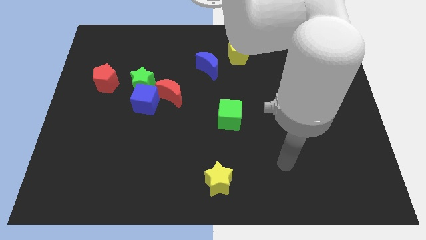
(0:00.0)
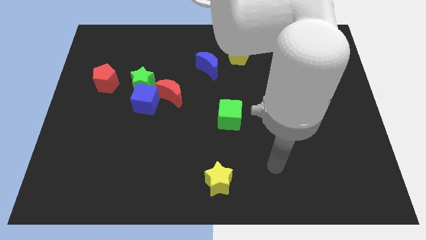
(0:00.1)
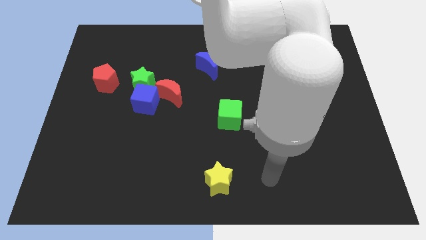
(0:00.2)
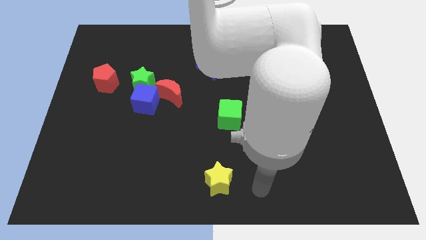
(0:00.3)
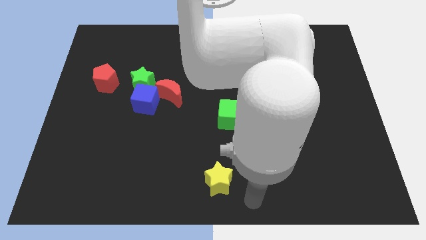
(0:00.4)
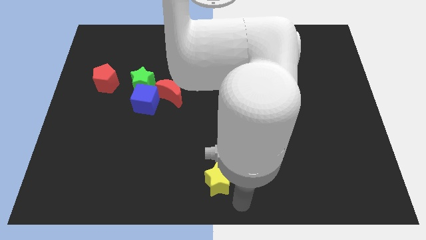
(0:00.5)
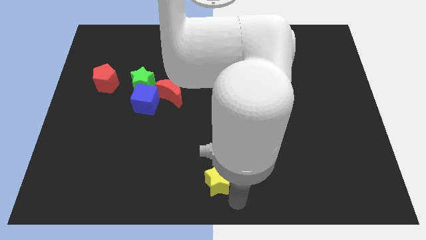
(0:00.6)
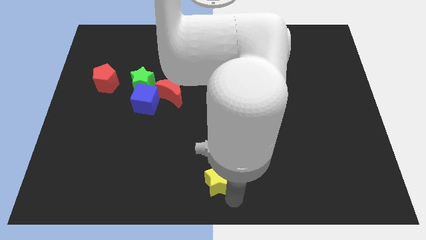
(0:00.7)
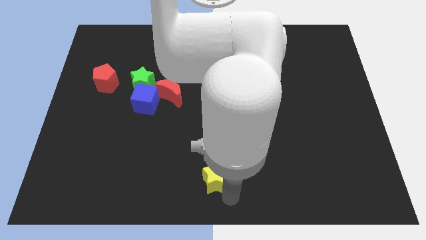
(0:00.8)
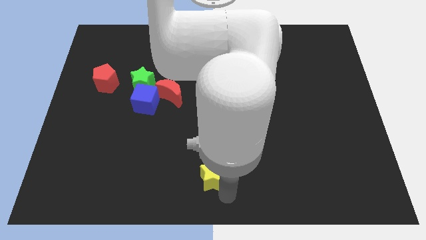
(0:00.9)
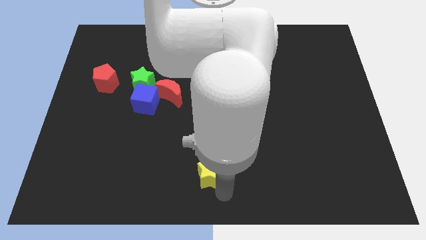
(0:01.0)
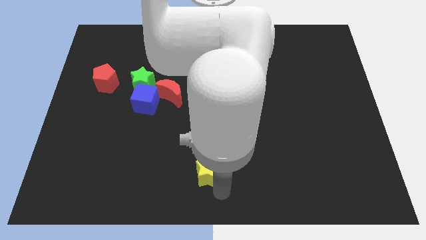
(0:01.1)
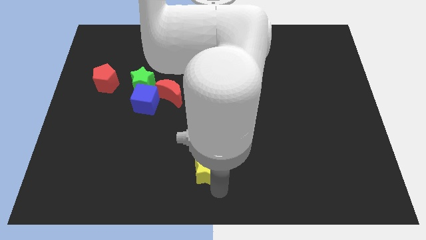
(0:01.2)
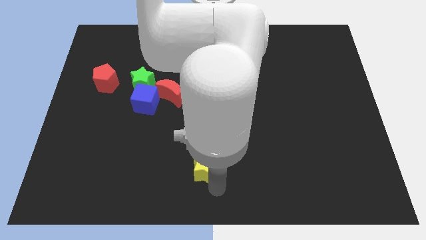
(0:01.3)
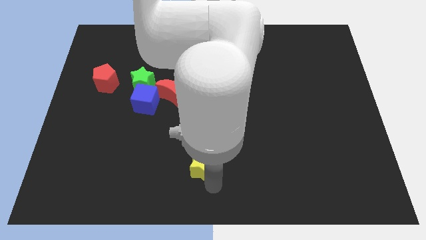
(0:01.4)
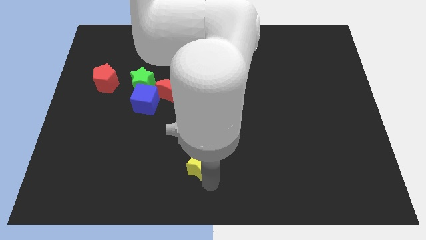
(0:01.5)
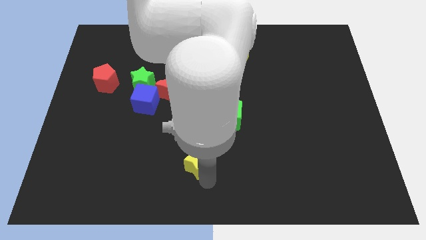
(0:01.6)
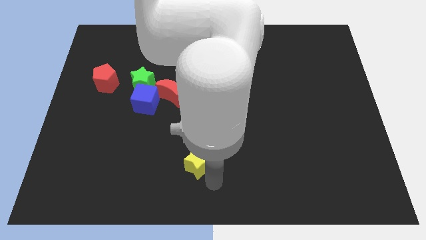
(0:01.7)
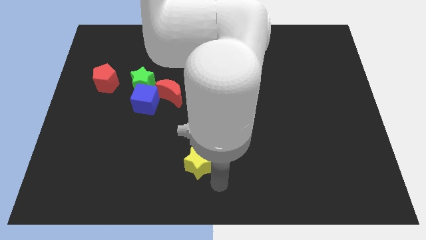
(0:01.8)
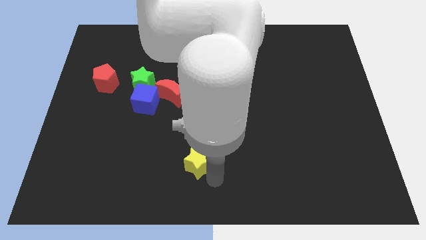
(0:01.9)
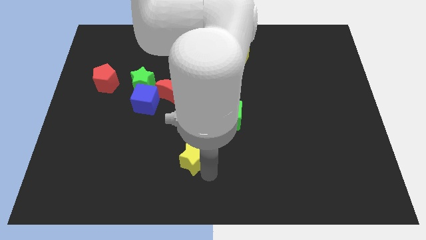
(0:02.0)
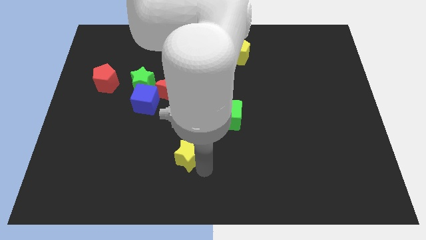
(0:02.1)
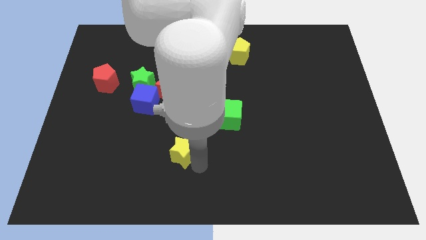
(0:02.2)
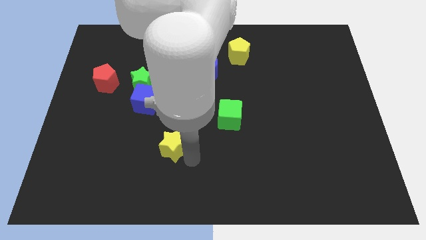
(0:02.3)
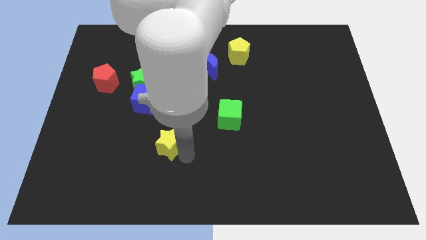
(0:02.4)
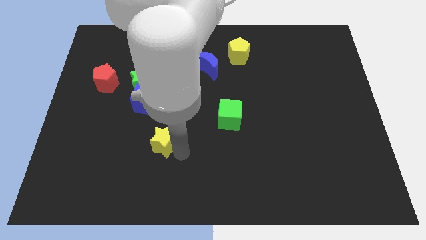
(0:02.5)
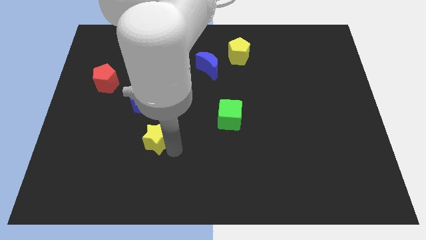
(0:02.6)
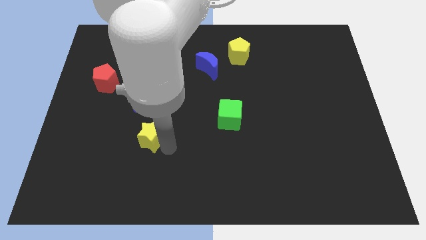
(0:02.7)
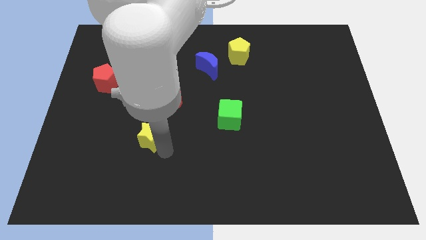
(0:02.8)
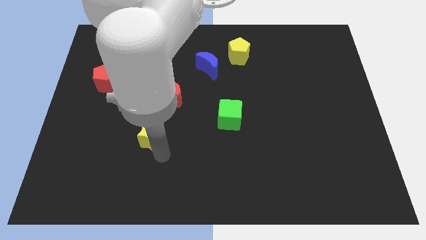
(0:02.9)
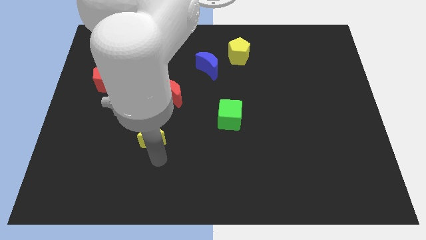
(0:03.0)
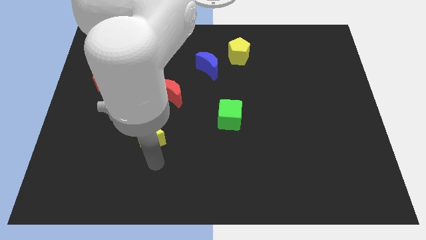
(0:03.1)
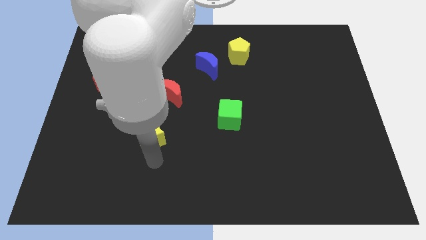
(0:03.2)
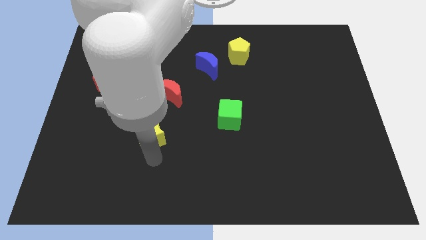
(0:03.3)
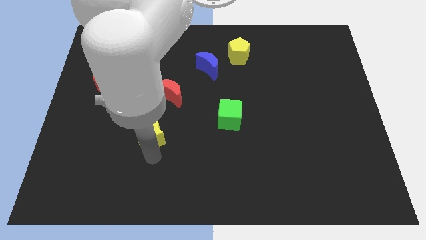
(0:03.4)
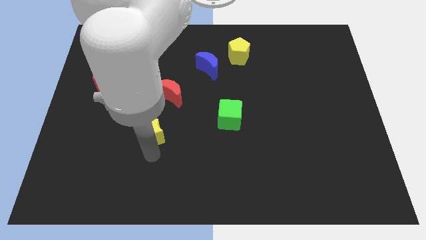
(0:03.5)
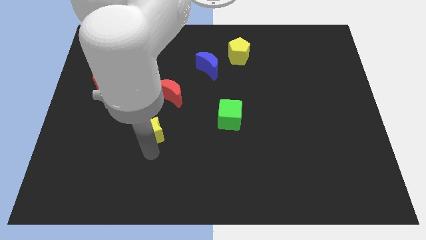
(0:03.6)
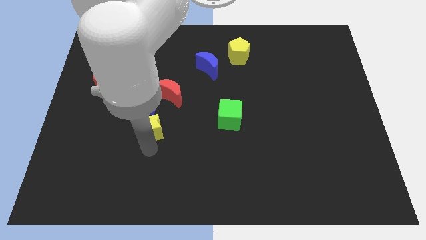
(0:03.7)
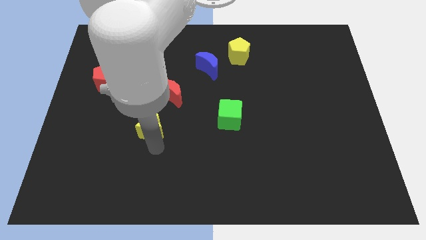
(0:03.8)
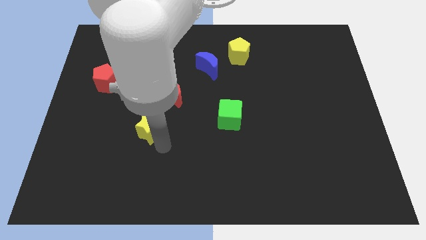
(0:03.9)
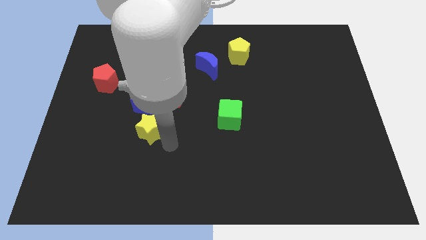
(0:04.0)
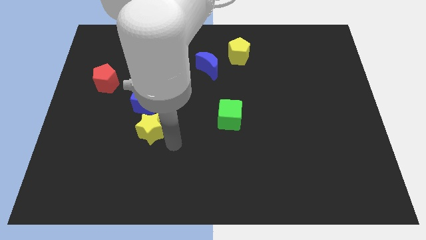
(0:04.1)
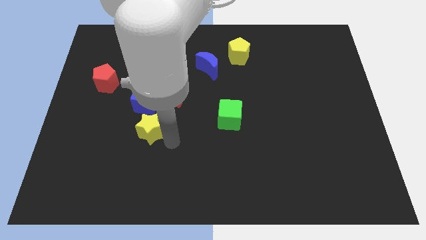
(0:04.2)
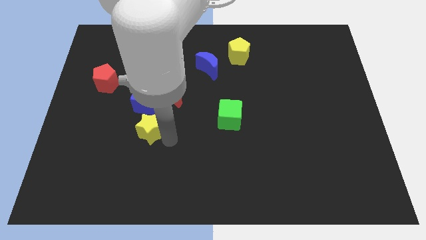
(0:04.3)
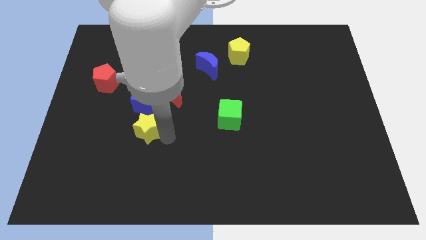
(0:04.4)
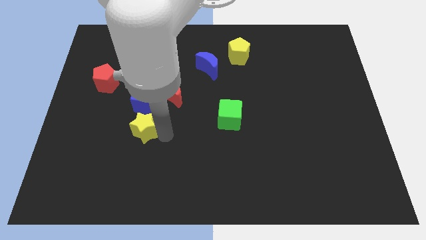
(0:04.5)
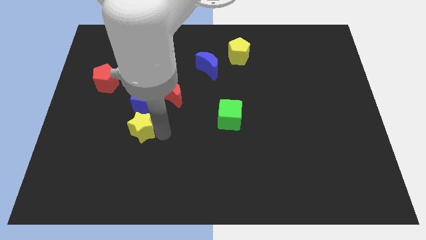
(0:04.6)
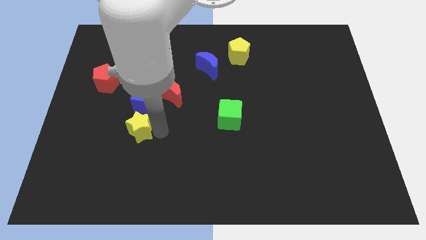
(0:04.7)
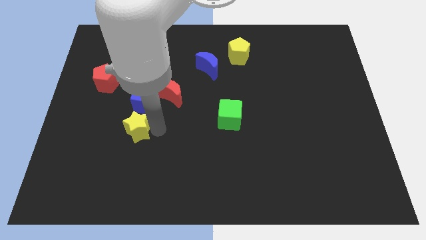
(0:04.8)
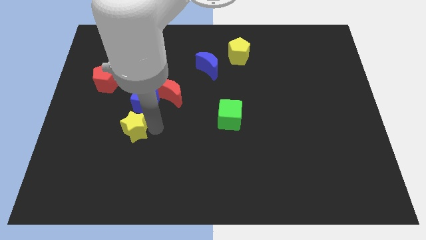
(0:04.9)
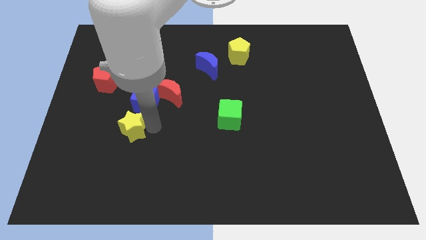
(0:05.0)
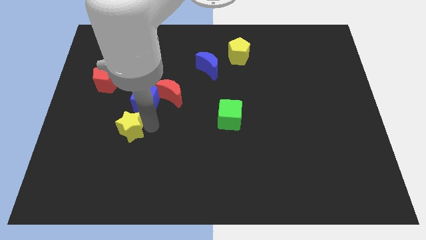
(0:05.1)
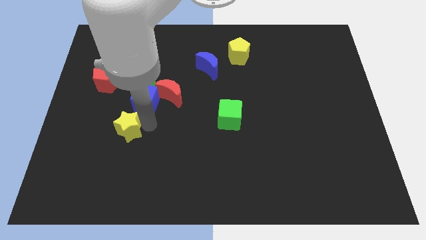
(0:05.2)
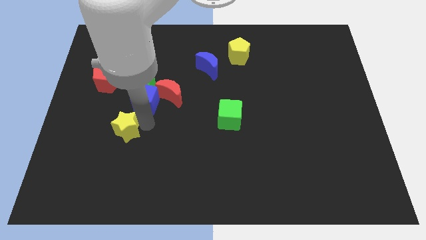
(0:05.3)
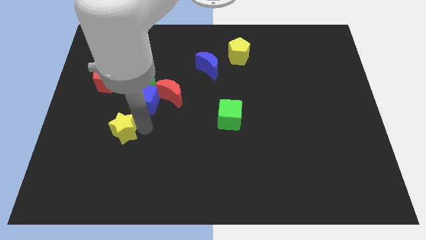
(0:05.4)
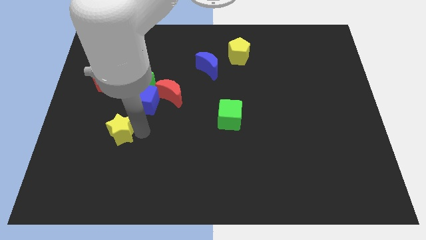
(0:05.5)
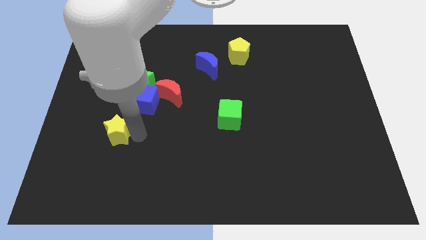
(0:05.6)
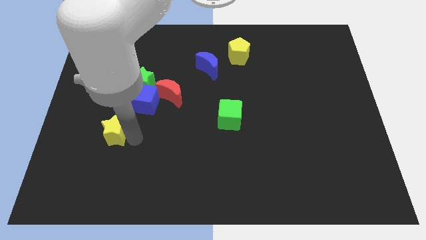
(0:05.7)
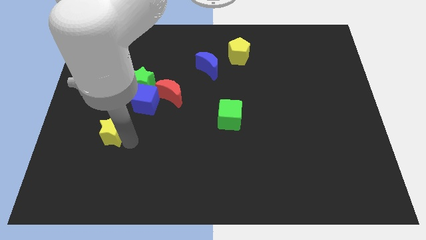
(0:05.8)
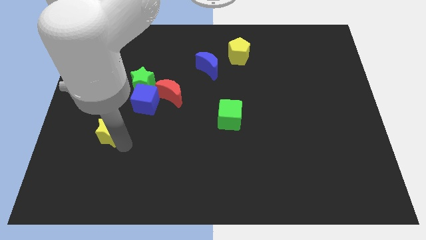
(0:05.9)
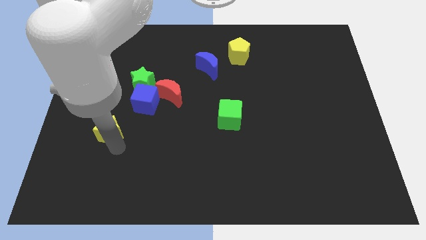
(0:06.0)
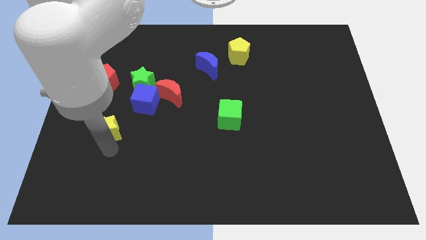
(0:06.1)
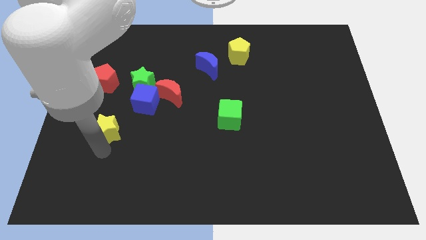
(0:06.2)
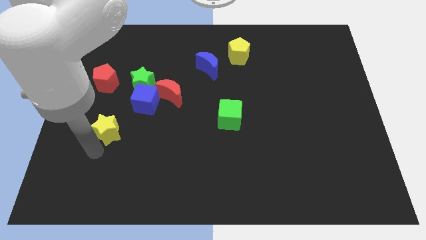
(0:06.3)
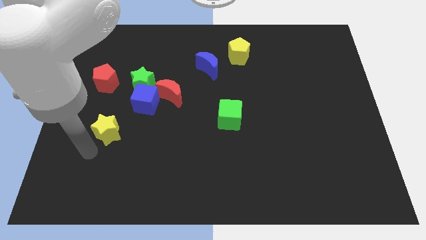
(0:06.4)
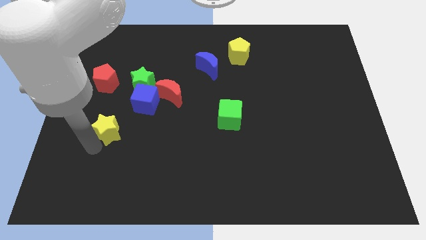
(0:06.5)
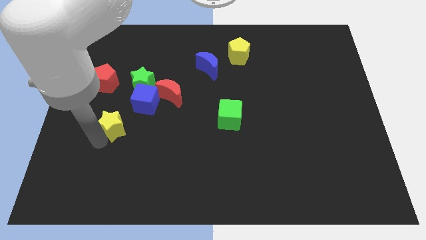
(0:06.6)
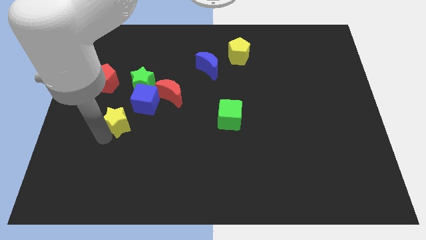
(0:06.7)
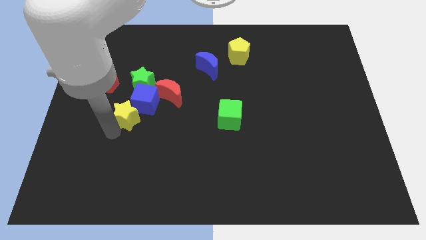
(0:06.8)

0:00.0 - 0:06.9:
push the yellow star just left of the blue cube
